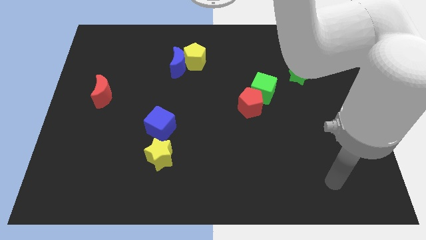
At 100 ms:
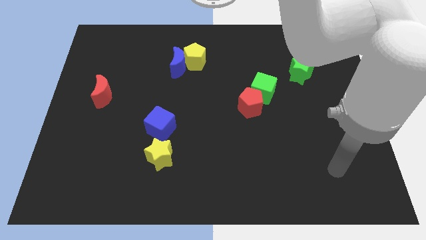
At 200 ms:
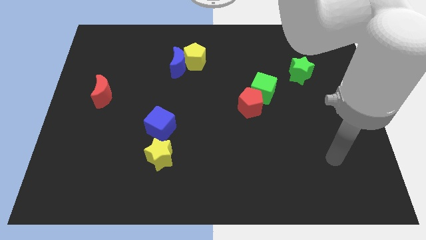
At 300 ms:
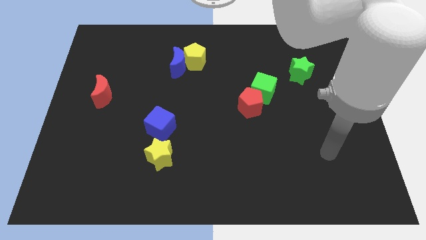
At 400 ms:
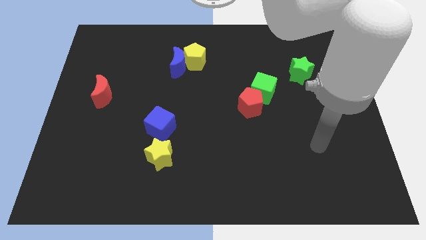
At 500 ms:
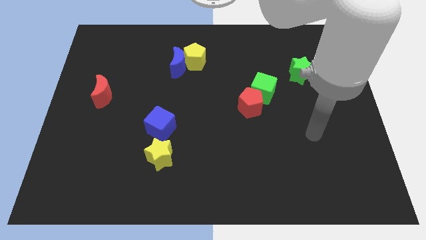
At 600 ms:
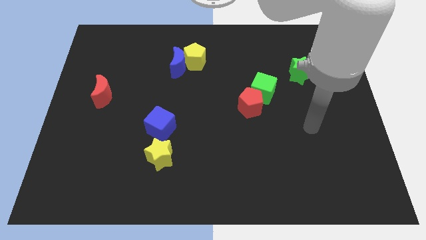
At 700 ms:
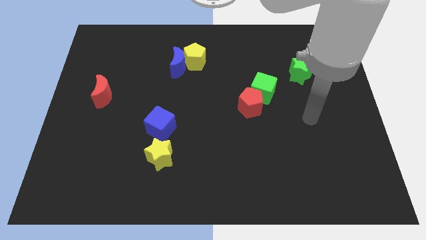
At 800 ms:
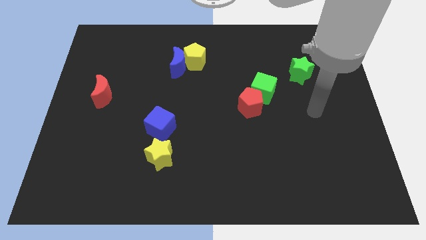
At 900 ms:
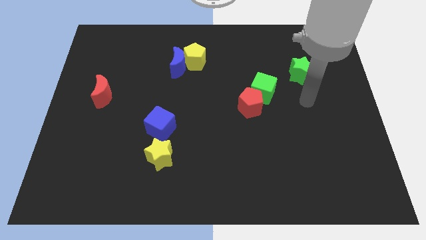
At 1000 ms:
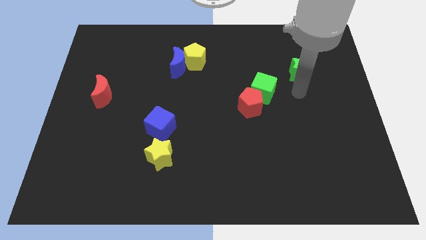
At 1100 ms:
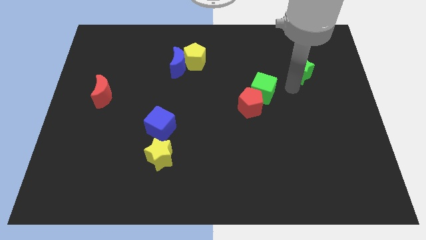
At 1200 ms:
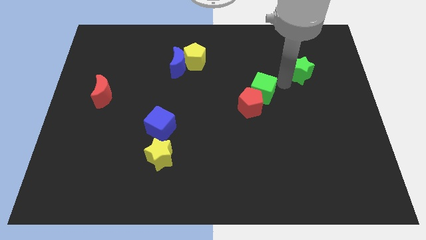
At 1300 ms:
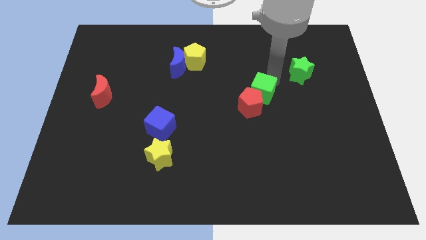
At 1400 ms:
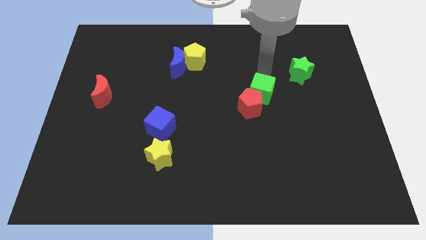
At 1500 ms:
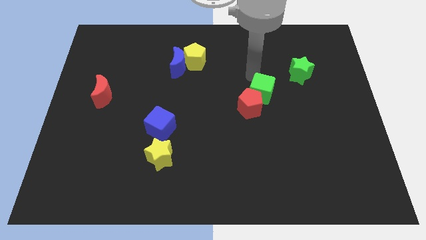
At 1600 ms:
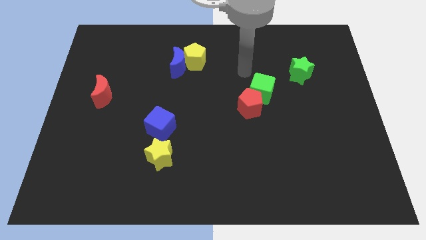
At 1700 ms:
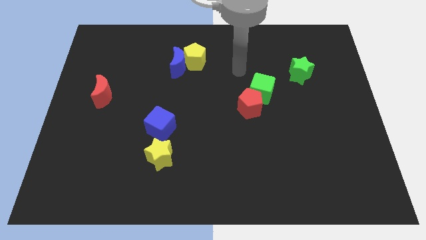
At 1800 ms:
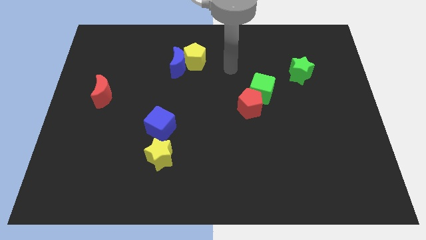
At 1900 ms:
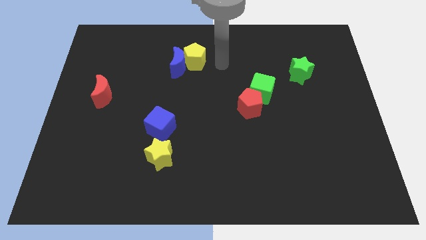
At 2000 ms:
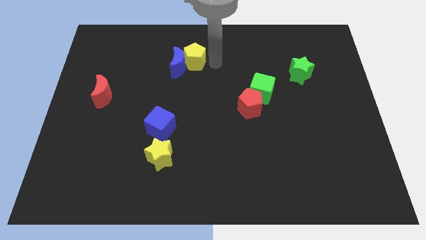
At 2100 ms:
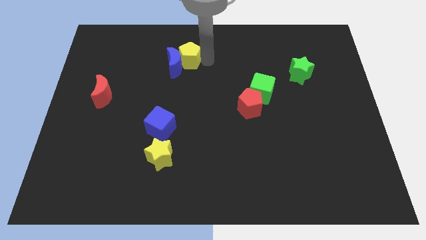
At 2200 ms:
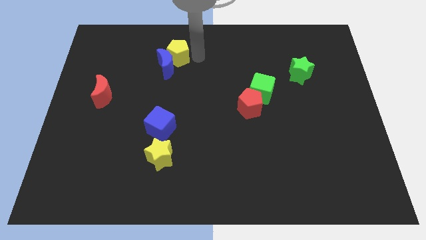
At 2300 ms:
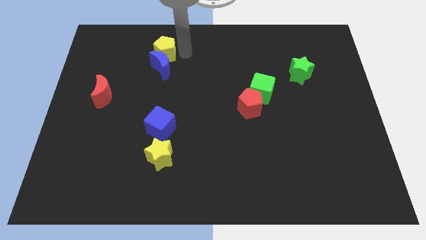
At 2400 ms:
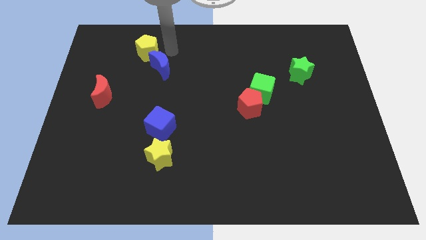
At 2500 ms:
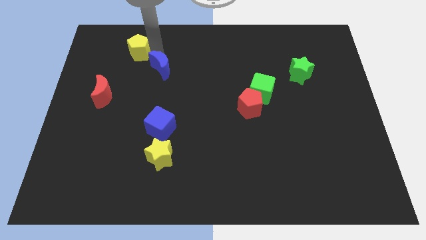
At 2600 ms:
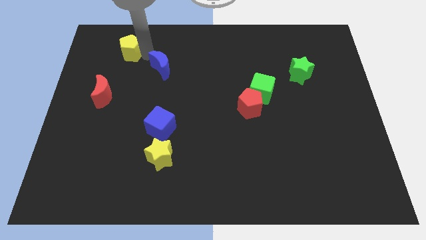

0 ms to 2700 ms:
separate the blue moon from the yellow pentagon

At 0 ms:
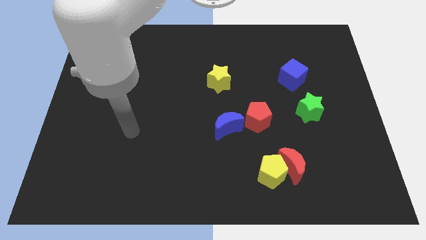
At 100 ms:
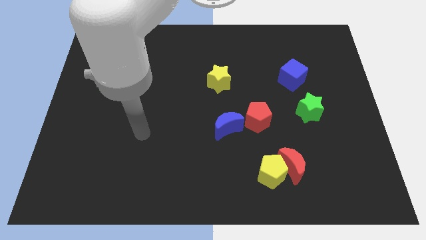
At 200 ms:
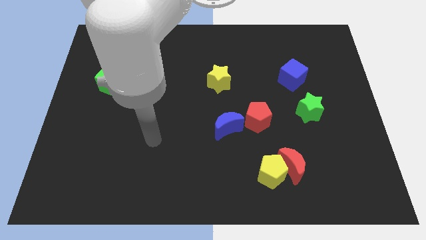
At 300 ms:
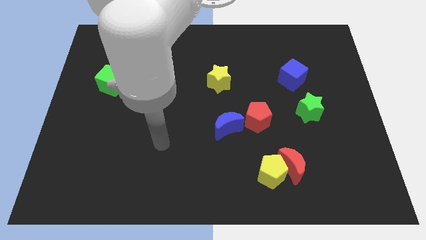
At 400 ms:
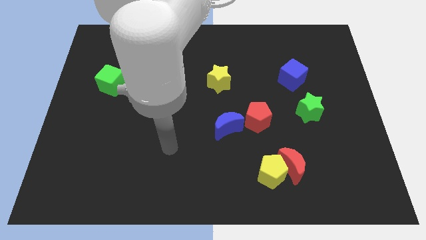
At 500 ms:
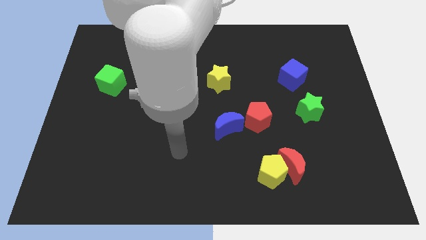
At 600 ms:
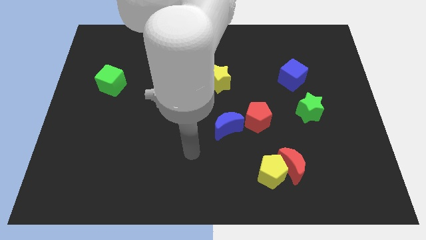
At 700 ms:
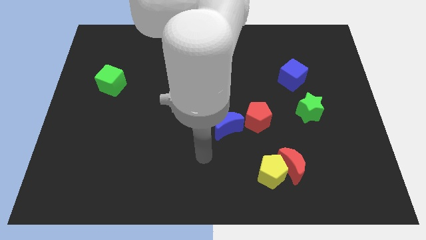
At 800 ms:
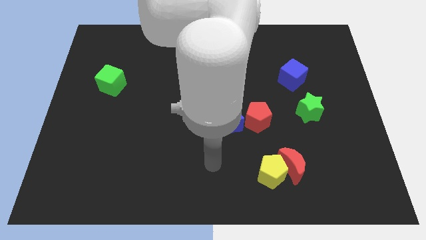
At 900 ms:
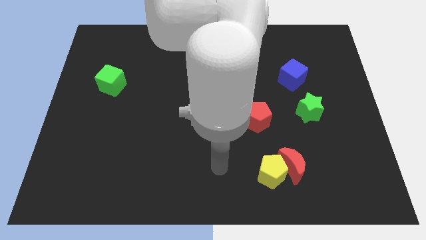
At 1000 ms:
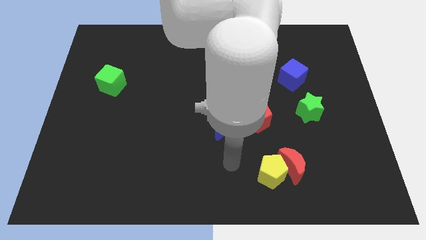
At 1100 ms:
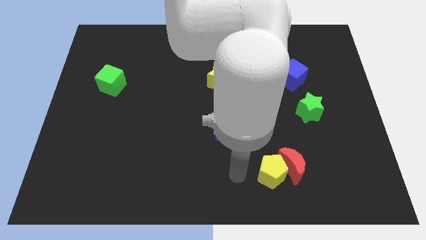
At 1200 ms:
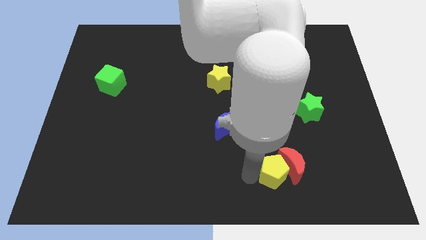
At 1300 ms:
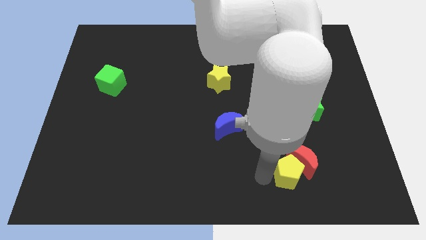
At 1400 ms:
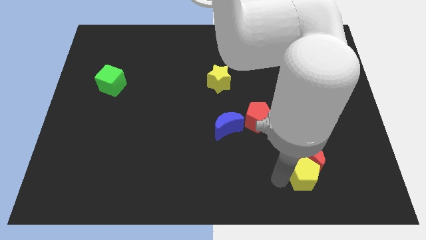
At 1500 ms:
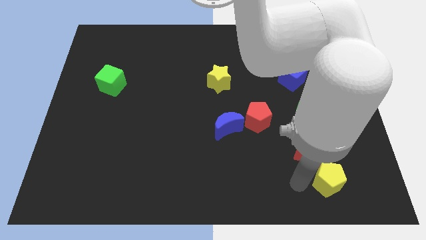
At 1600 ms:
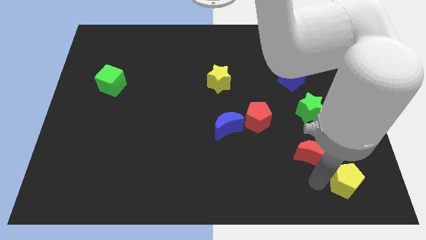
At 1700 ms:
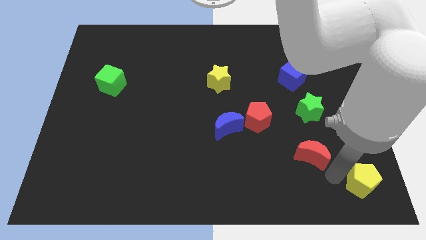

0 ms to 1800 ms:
pull the red moon apart from the yellow pentagon

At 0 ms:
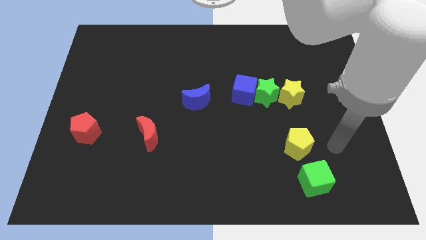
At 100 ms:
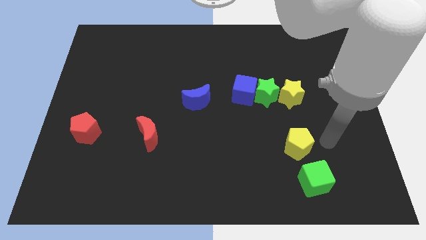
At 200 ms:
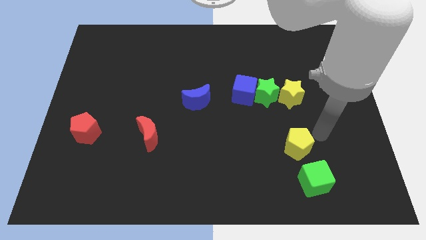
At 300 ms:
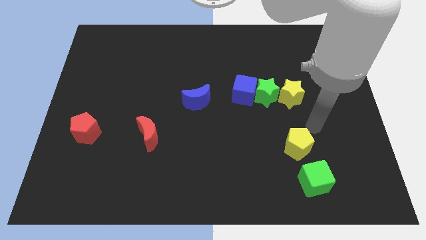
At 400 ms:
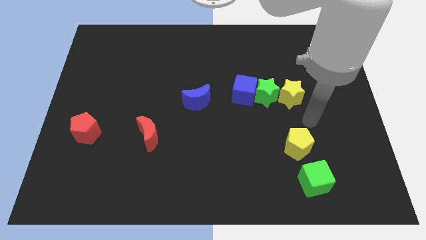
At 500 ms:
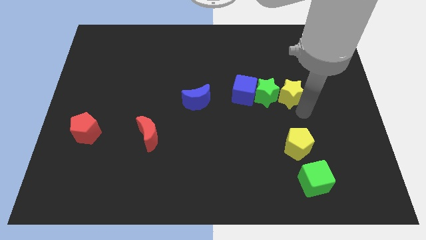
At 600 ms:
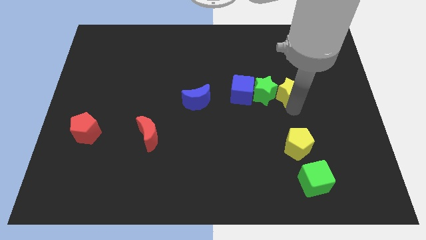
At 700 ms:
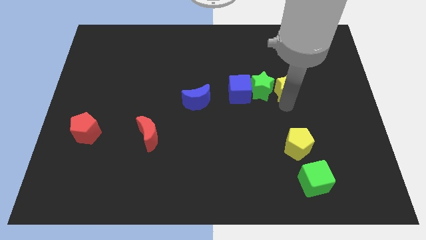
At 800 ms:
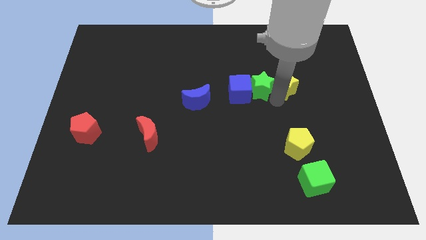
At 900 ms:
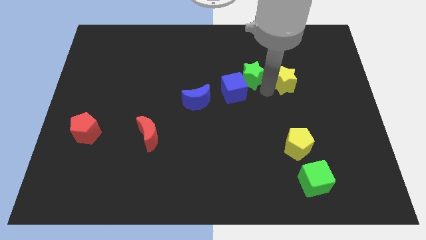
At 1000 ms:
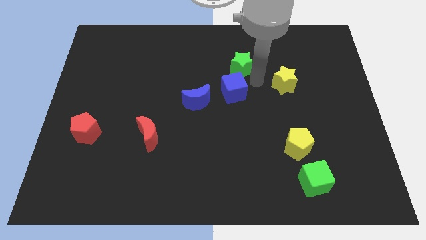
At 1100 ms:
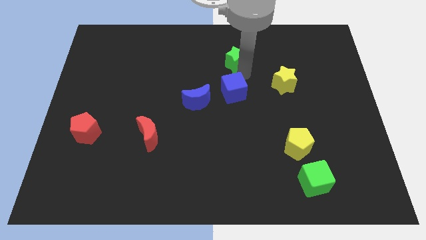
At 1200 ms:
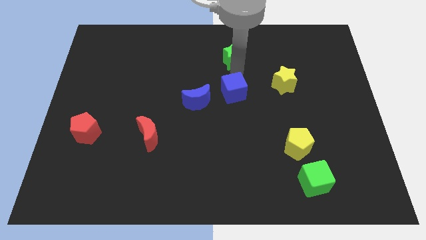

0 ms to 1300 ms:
separate the blue cube from the green star

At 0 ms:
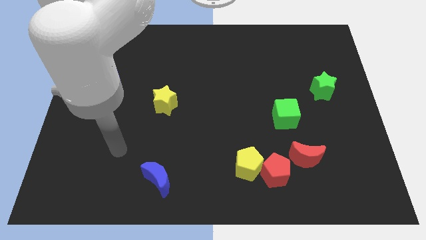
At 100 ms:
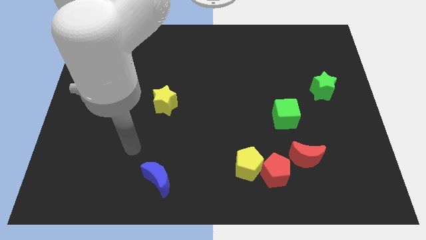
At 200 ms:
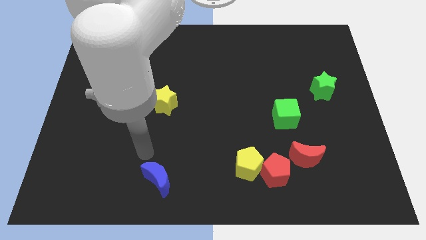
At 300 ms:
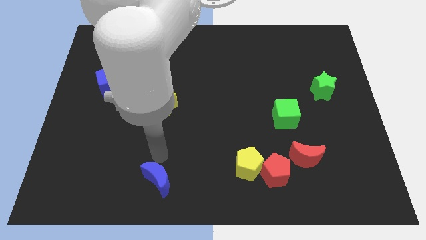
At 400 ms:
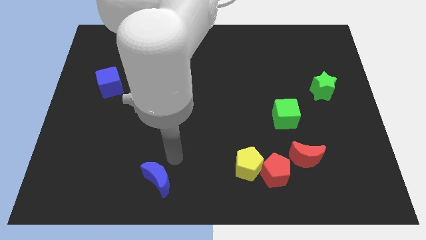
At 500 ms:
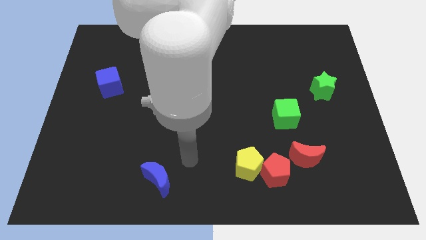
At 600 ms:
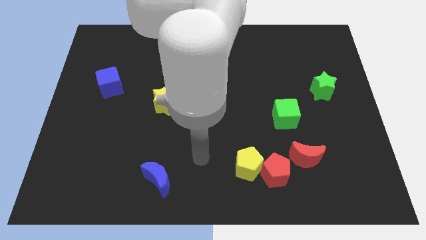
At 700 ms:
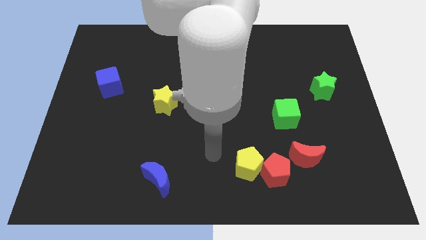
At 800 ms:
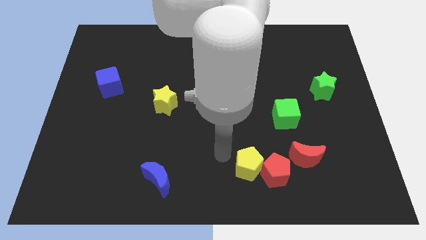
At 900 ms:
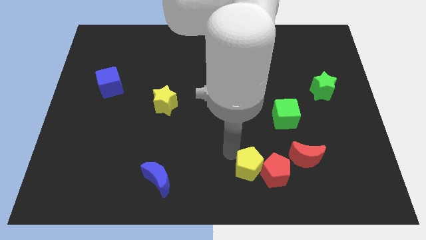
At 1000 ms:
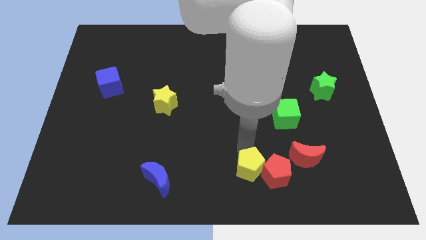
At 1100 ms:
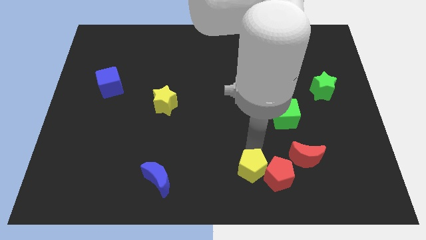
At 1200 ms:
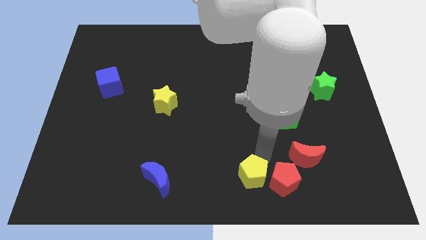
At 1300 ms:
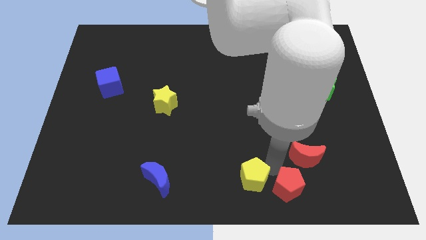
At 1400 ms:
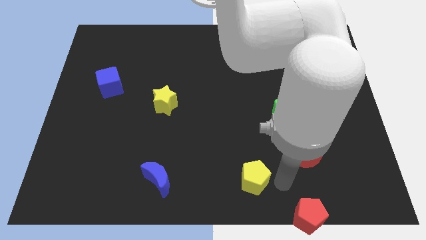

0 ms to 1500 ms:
separate the yellow pentagon from the red pentagon

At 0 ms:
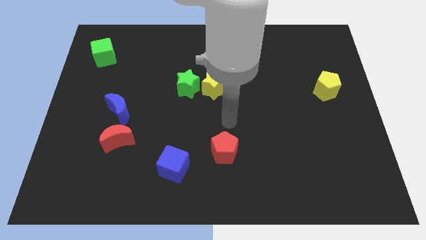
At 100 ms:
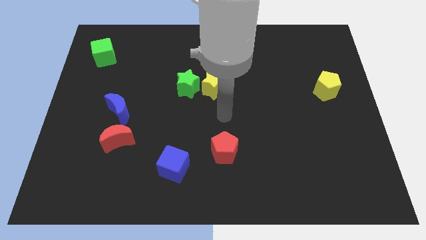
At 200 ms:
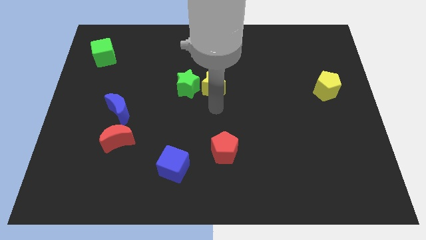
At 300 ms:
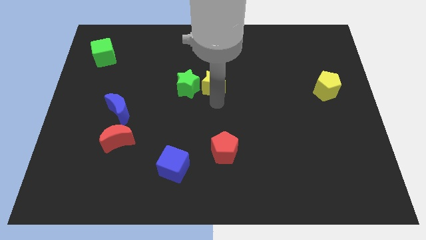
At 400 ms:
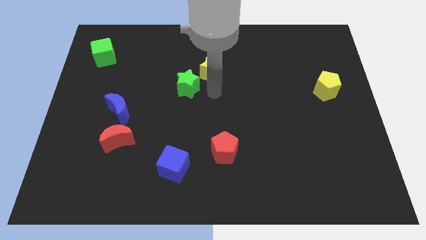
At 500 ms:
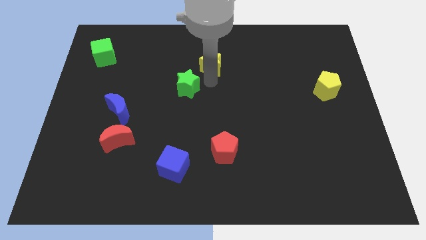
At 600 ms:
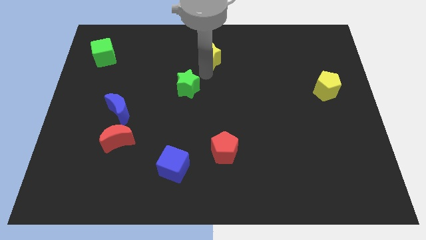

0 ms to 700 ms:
pull the green star apart from the yellow star

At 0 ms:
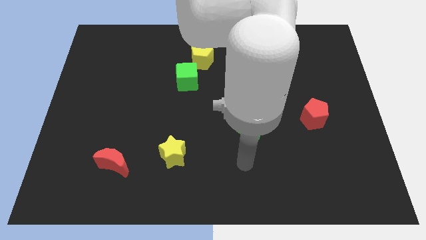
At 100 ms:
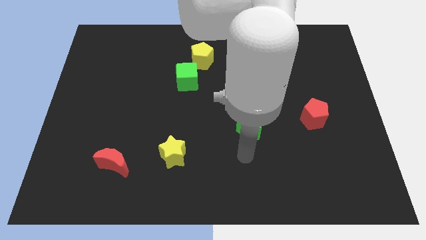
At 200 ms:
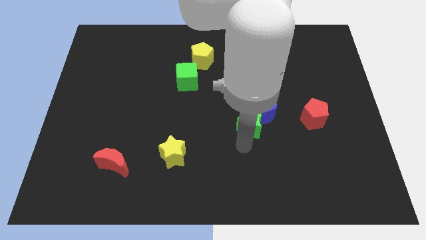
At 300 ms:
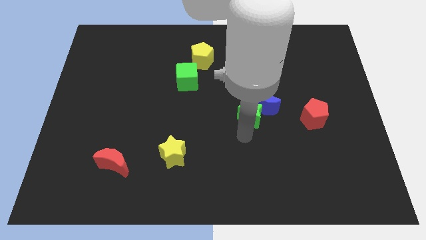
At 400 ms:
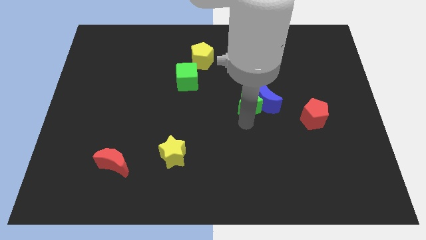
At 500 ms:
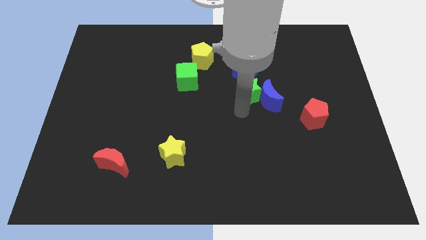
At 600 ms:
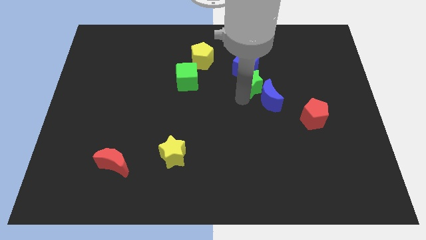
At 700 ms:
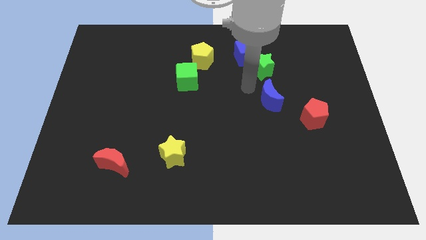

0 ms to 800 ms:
separate the blue moon from the green star

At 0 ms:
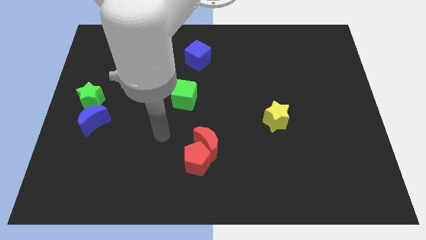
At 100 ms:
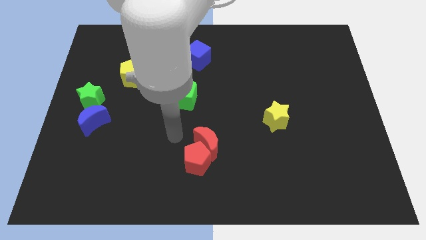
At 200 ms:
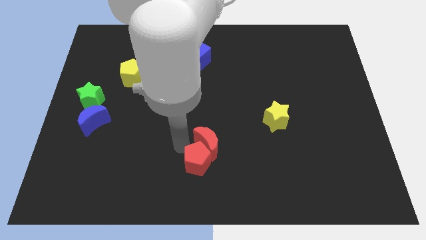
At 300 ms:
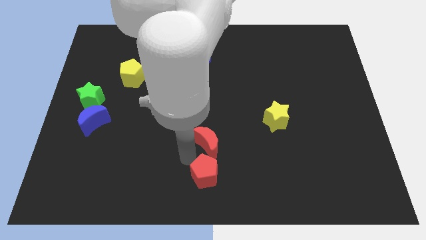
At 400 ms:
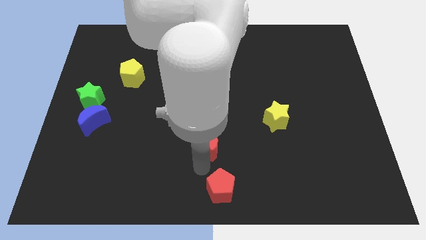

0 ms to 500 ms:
pull the red moon apart from the red pentagon
